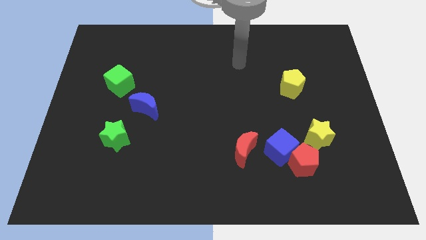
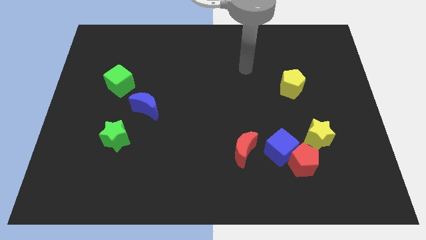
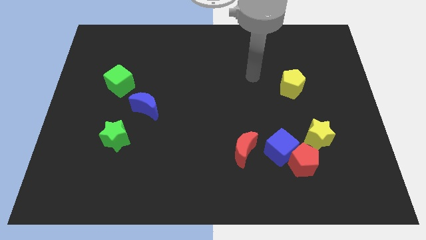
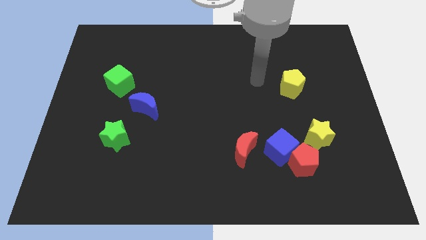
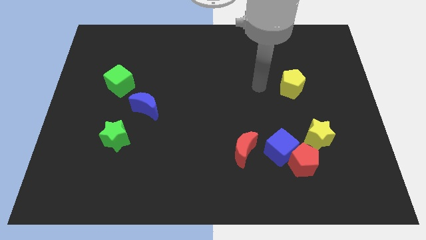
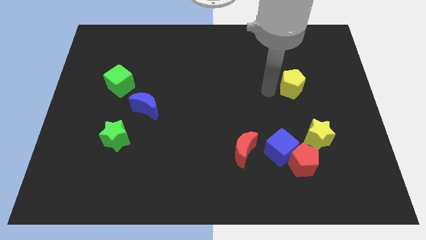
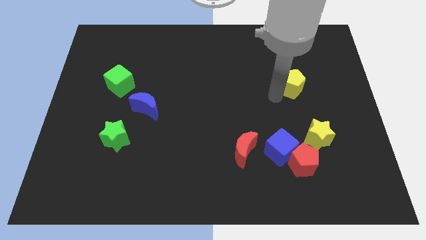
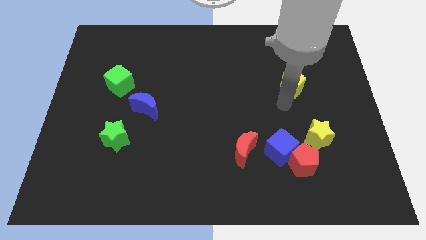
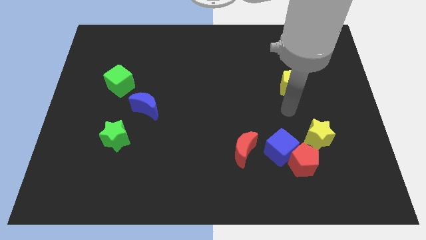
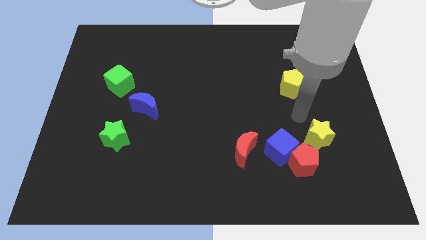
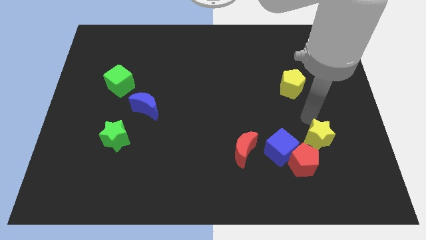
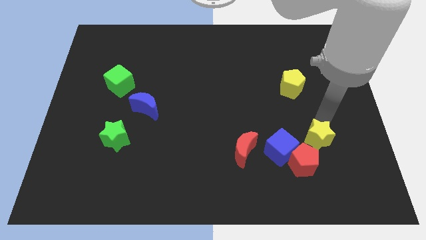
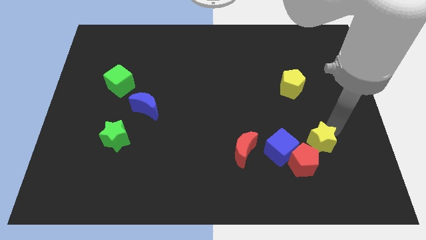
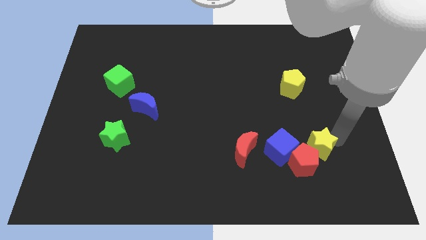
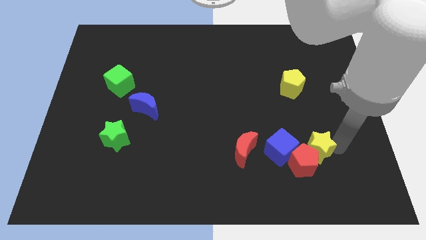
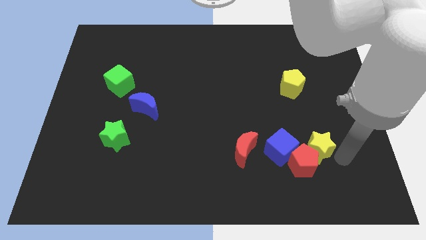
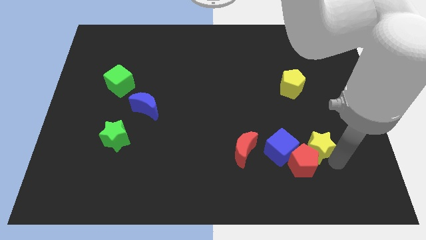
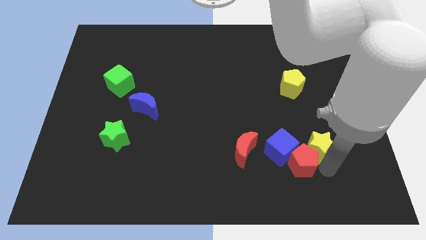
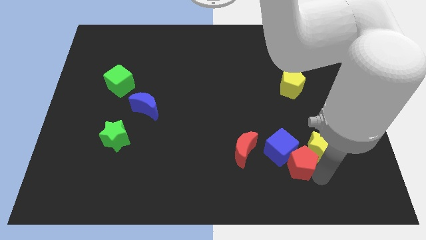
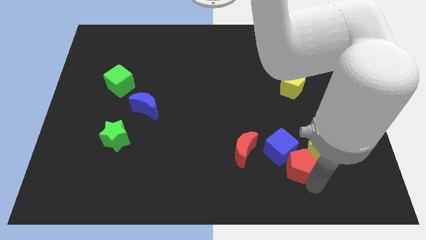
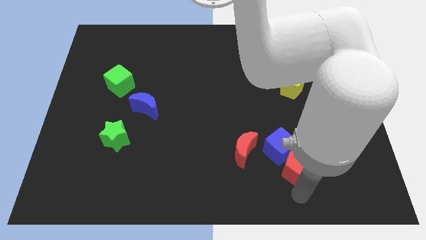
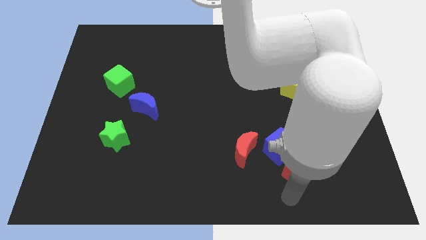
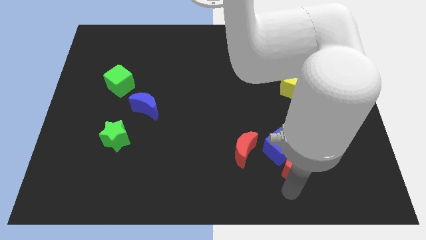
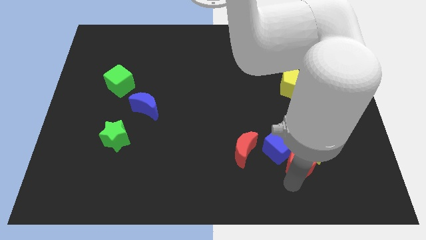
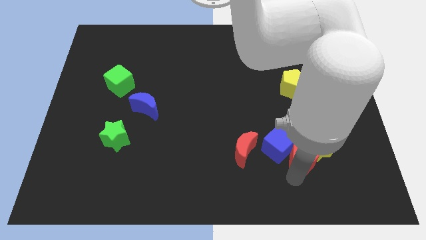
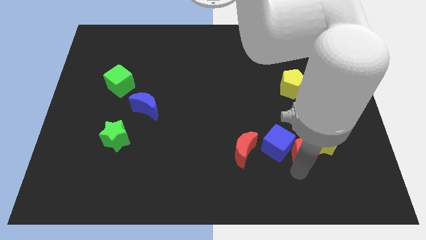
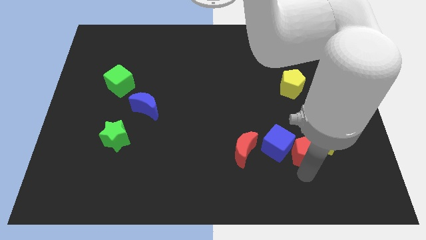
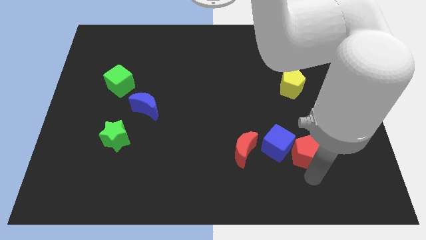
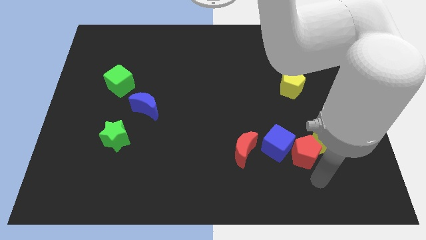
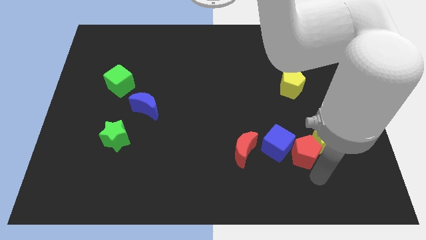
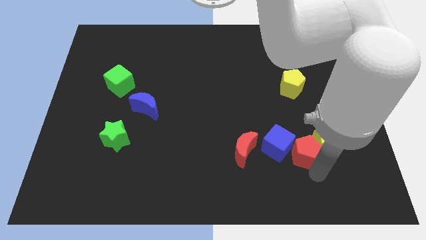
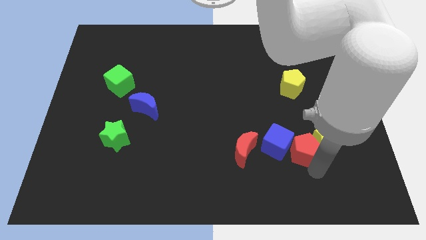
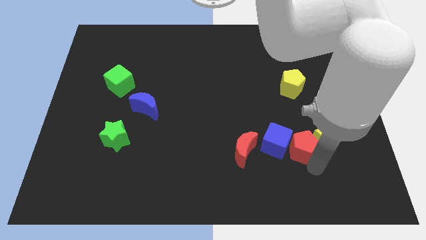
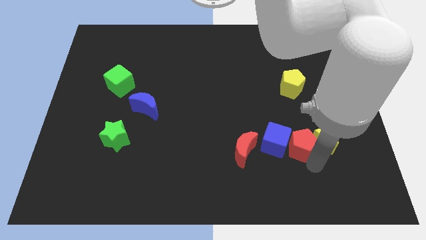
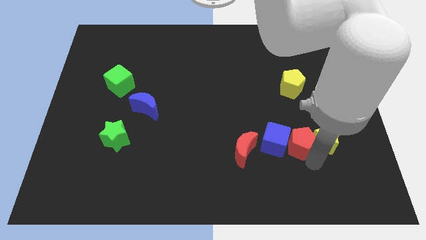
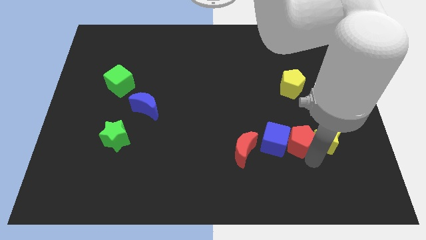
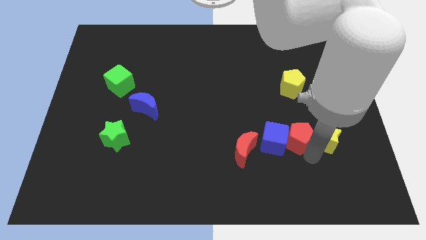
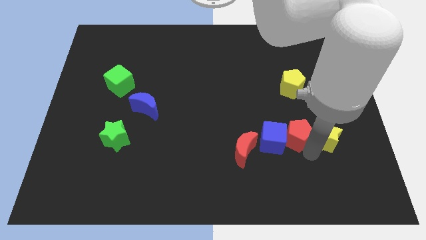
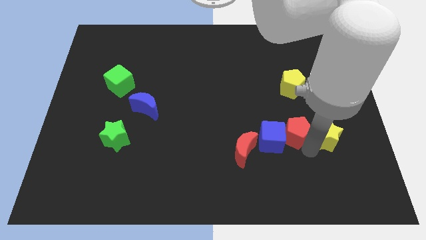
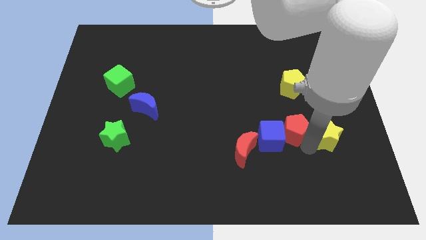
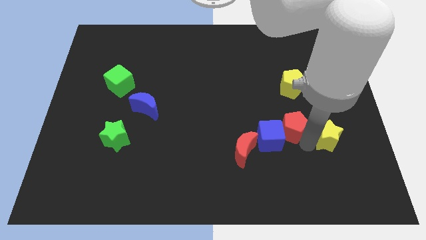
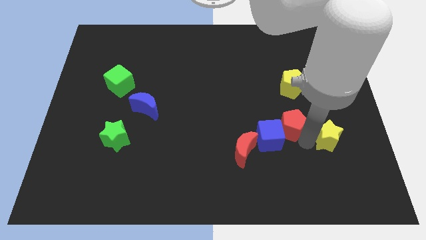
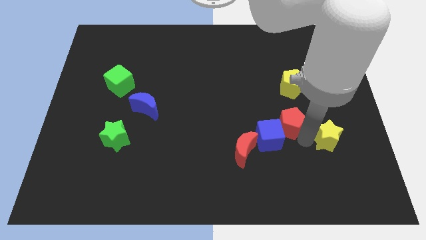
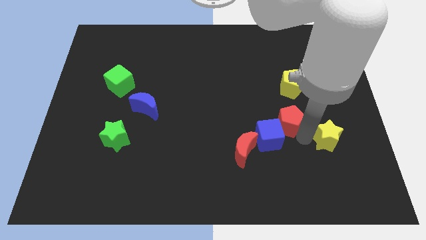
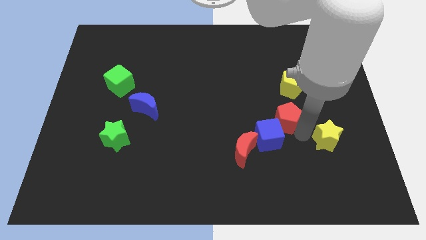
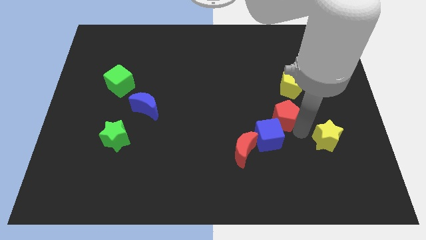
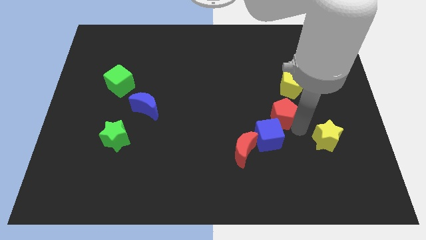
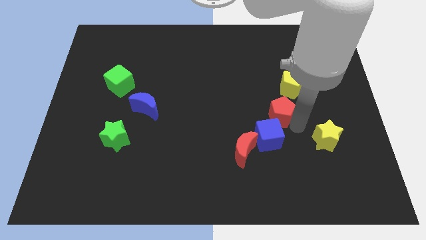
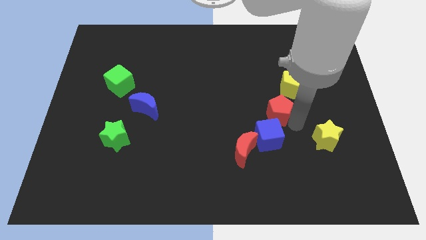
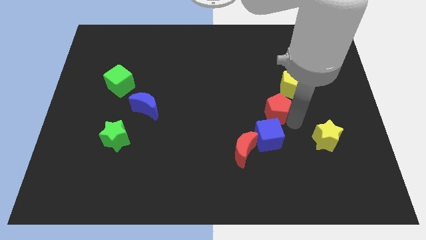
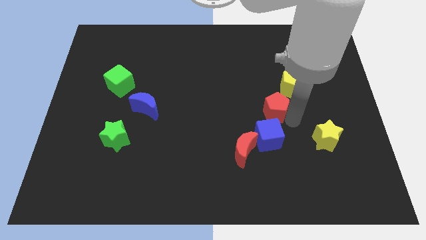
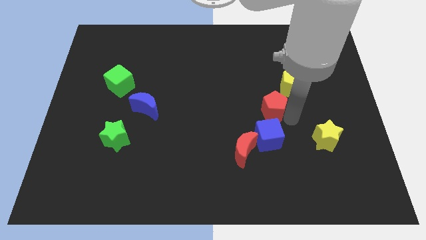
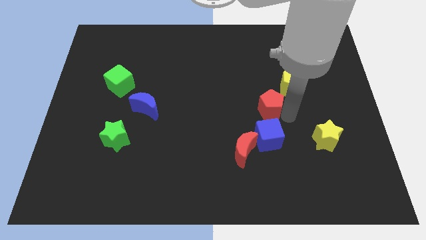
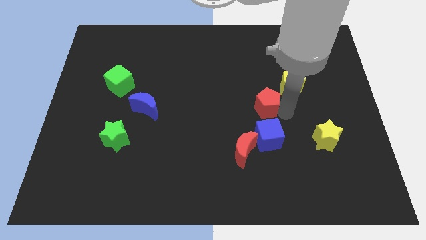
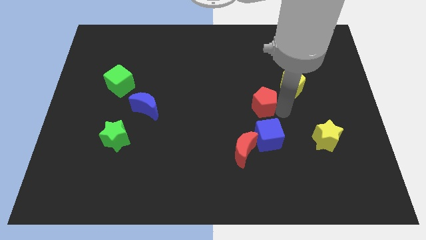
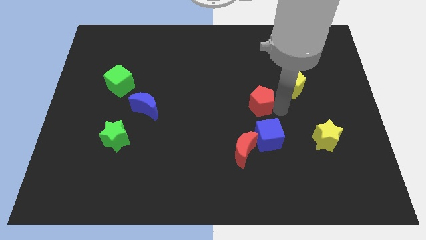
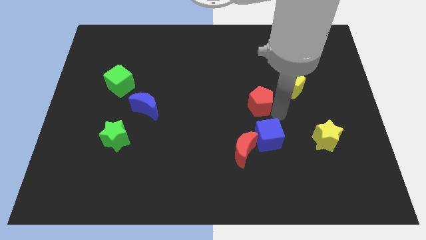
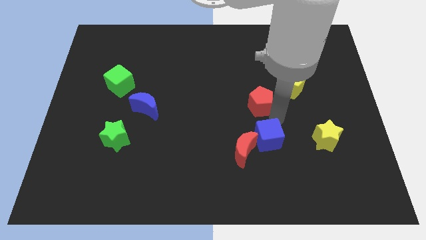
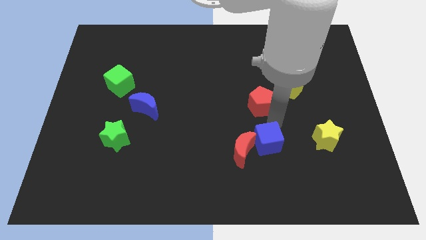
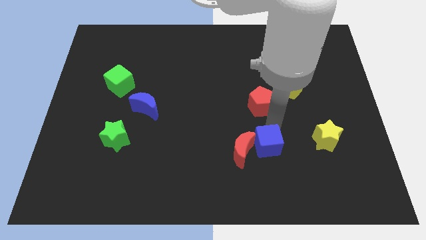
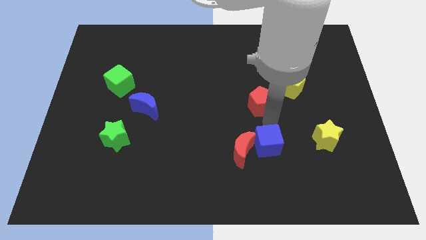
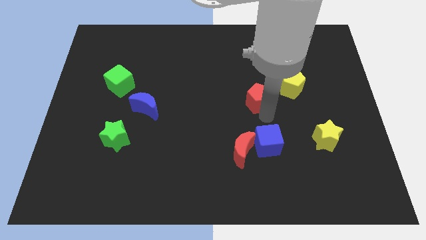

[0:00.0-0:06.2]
put the red pentagon to the left of the yellow pentagon

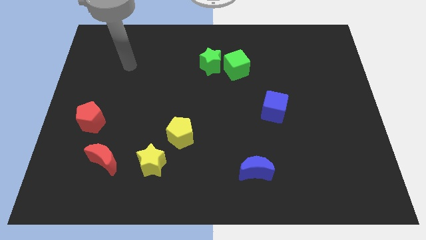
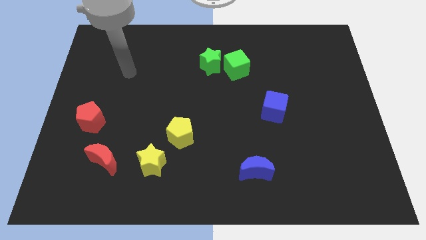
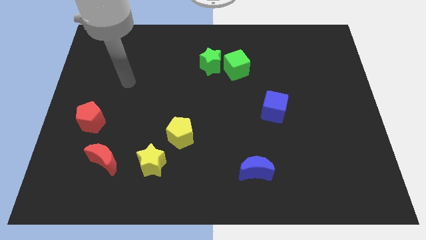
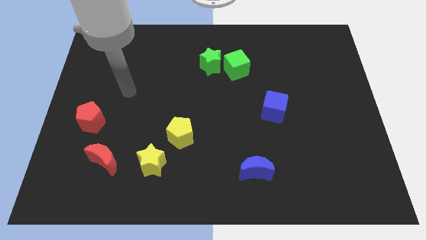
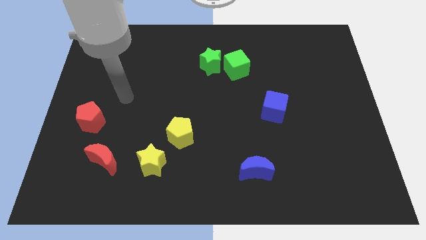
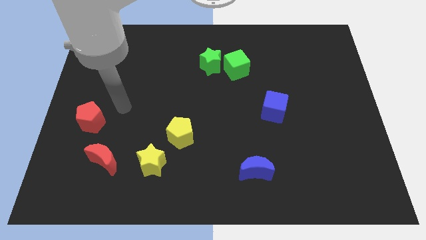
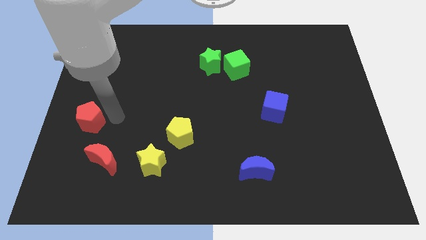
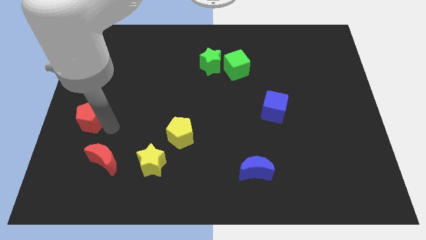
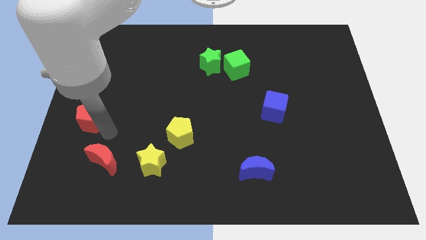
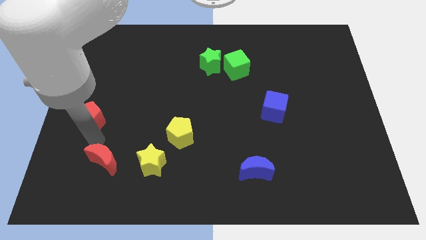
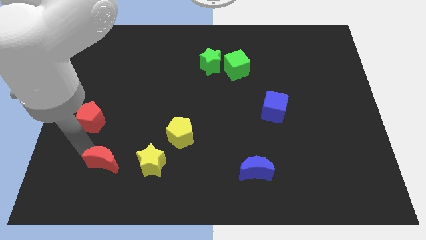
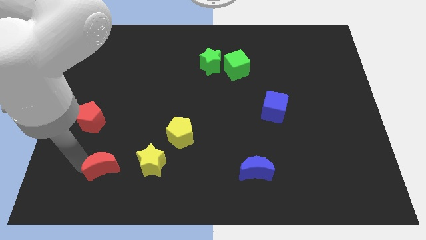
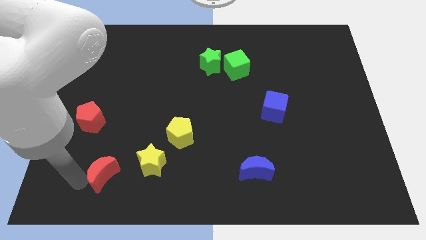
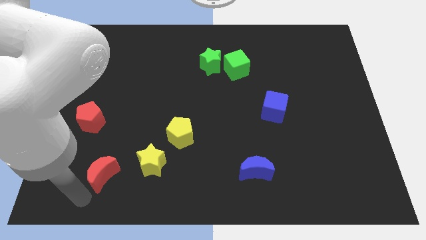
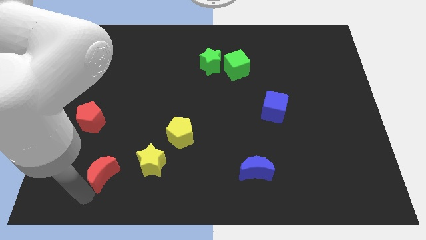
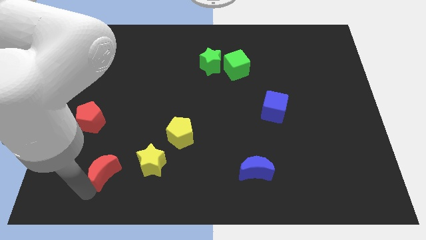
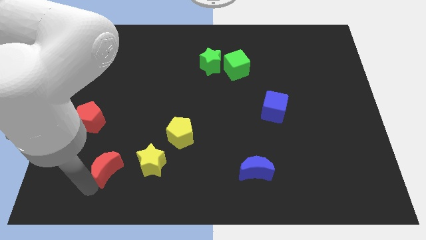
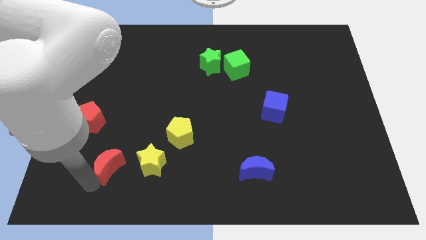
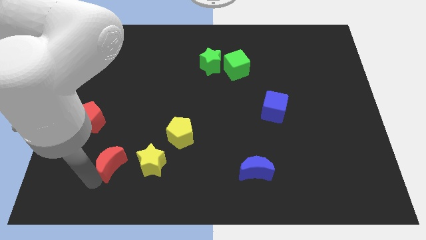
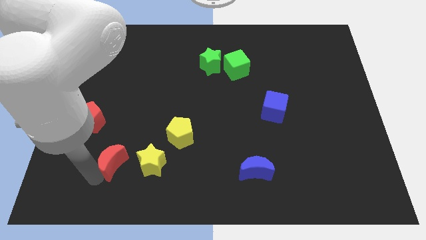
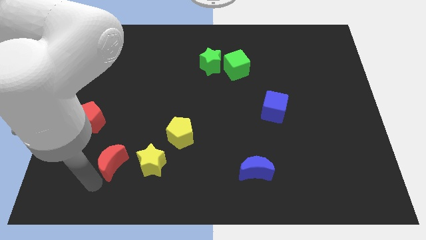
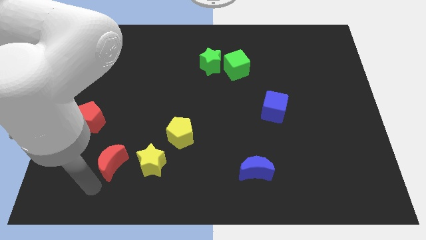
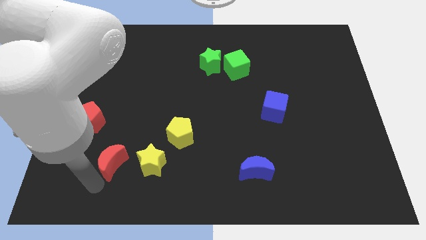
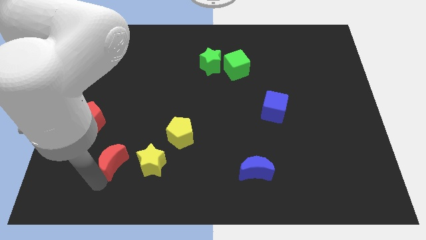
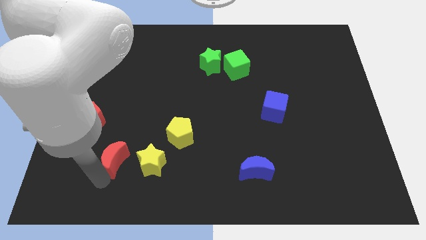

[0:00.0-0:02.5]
put the red moon to the top left of the yellow star
